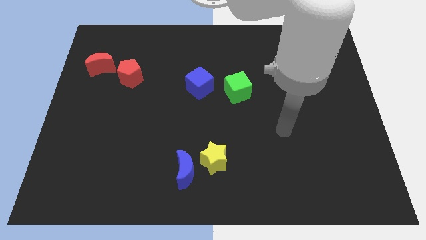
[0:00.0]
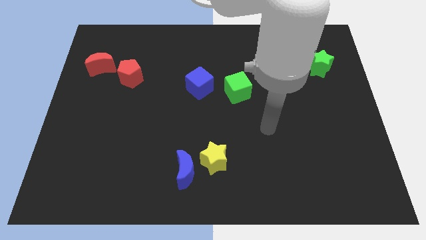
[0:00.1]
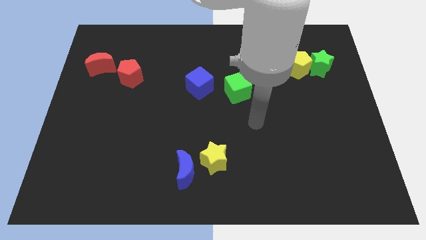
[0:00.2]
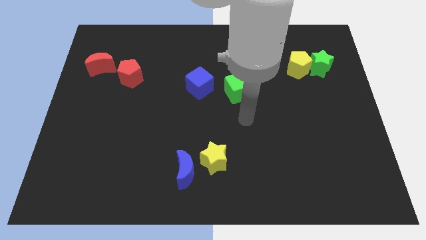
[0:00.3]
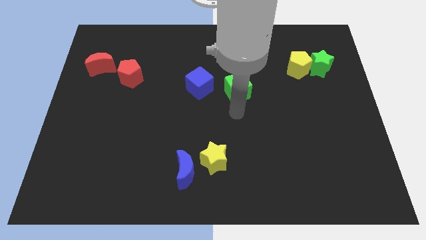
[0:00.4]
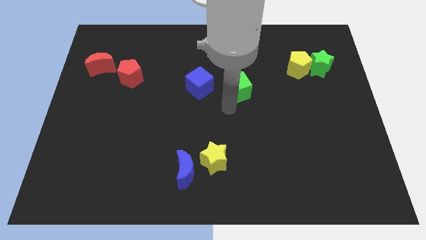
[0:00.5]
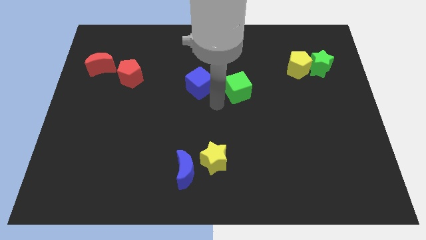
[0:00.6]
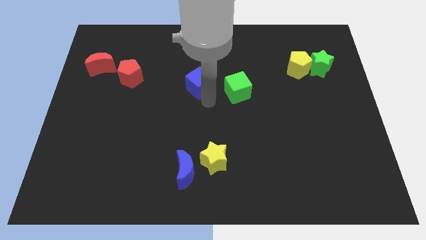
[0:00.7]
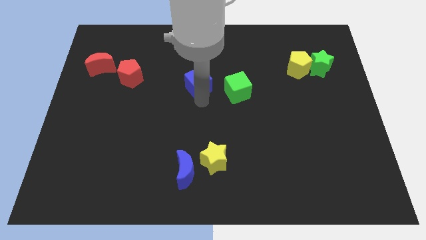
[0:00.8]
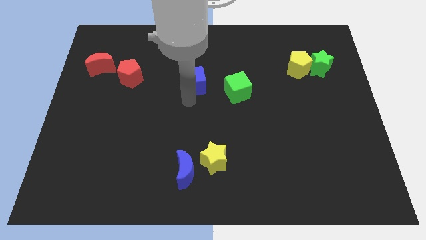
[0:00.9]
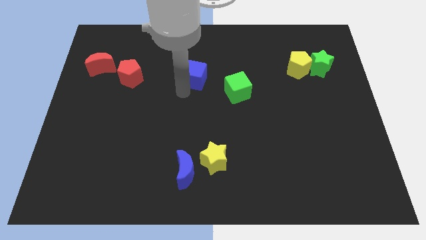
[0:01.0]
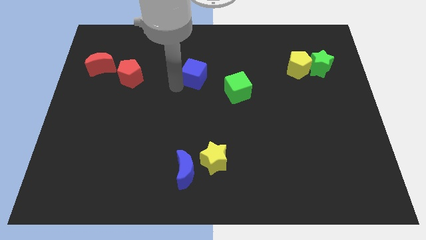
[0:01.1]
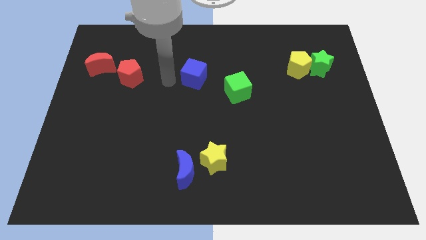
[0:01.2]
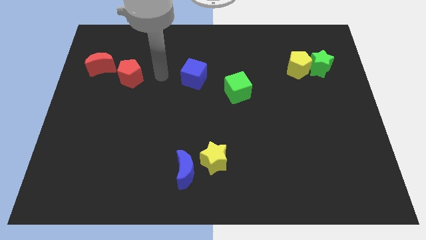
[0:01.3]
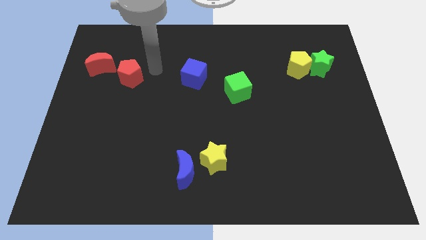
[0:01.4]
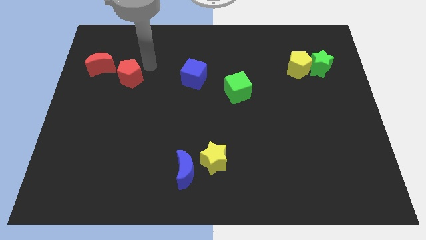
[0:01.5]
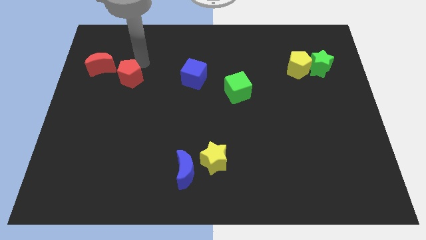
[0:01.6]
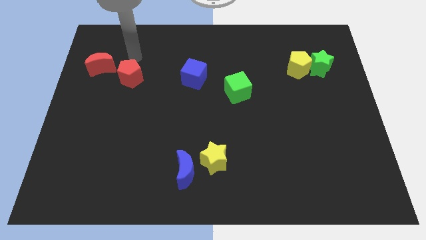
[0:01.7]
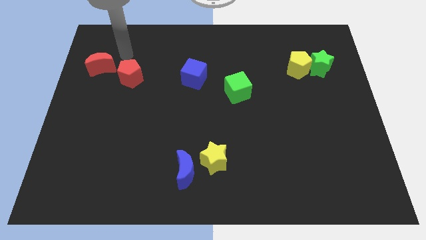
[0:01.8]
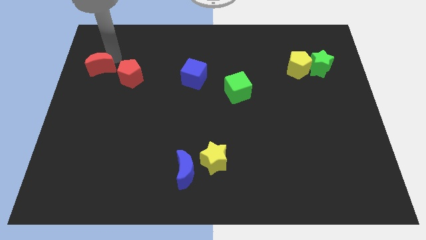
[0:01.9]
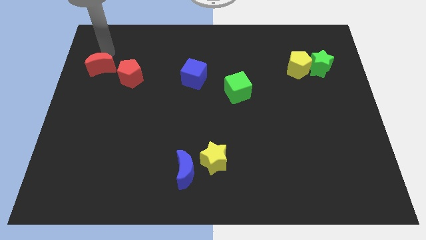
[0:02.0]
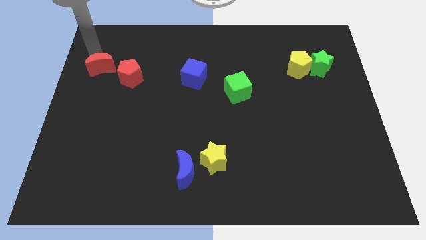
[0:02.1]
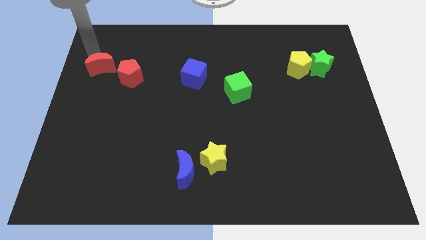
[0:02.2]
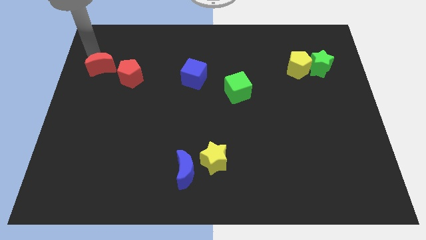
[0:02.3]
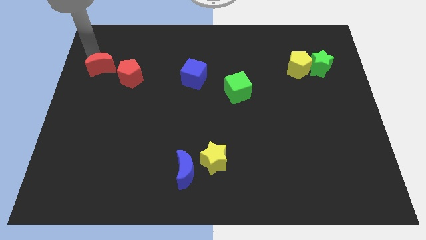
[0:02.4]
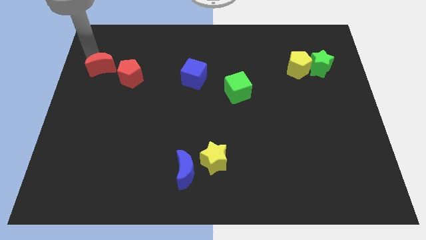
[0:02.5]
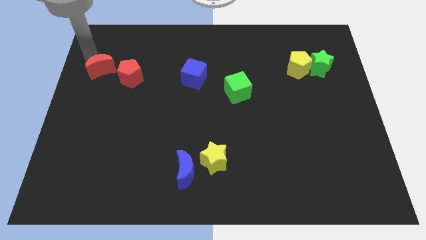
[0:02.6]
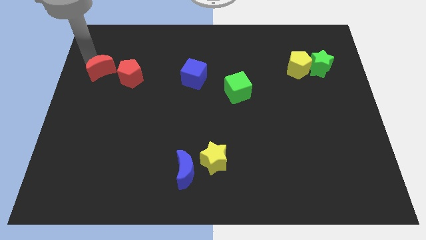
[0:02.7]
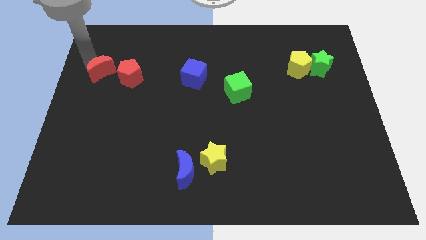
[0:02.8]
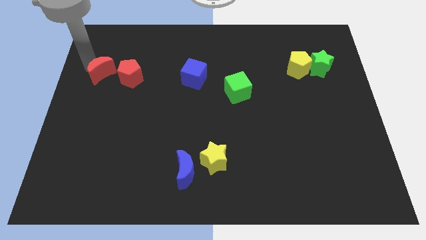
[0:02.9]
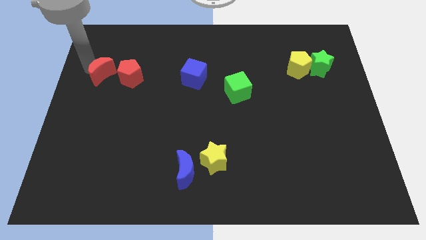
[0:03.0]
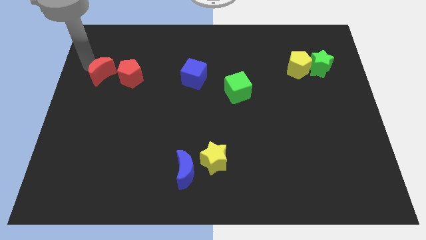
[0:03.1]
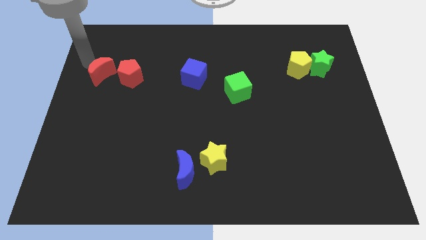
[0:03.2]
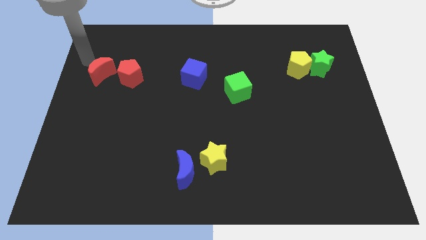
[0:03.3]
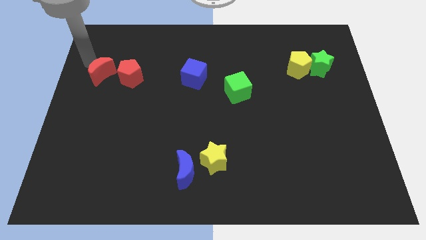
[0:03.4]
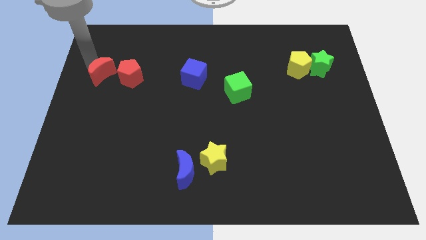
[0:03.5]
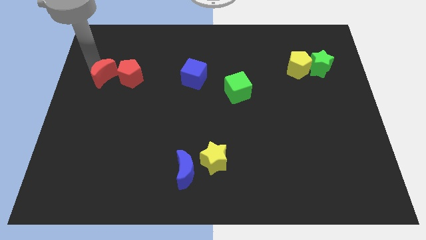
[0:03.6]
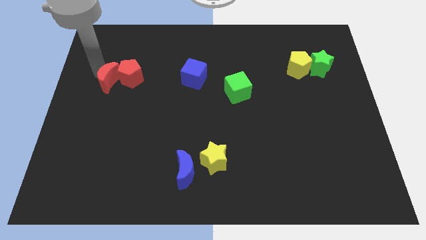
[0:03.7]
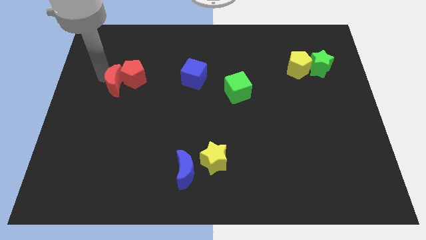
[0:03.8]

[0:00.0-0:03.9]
push the red moon down and to the right a little bit

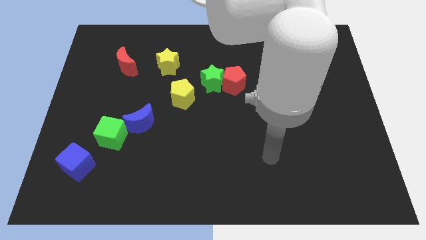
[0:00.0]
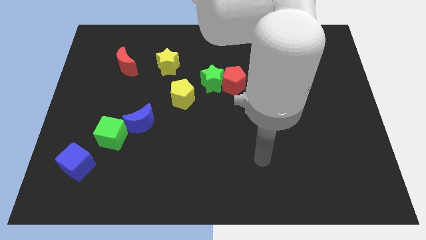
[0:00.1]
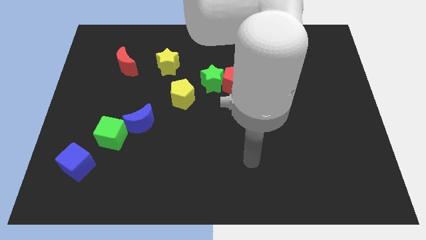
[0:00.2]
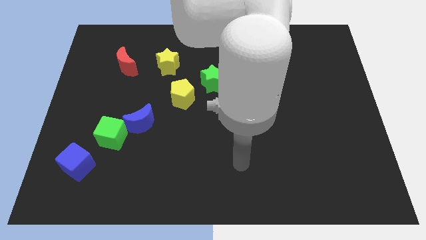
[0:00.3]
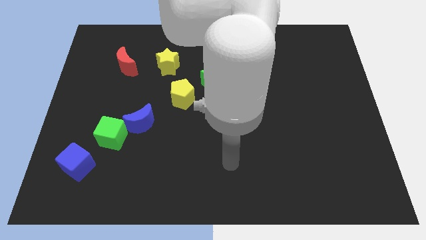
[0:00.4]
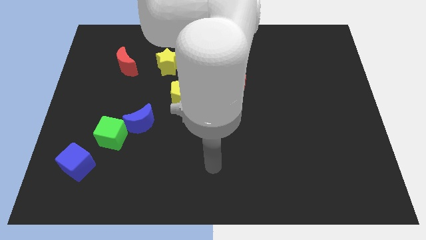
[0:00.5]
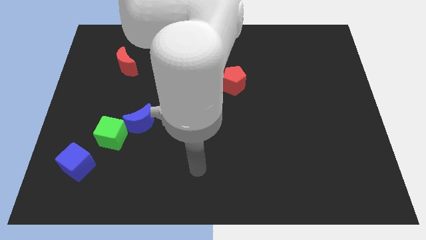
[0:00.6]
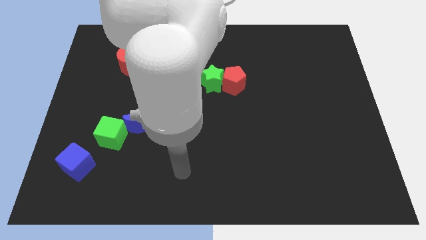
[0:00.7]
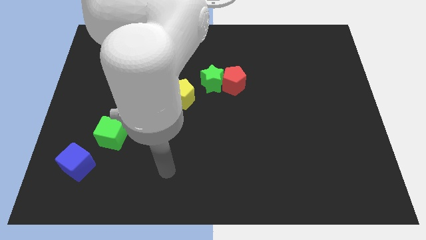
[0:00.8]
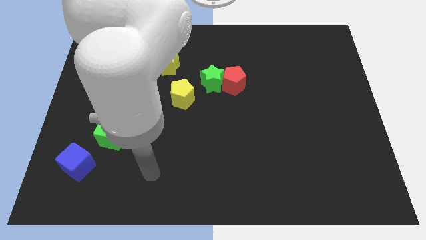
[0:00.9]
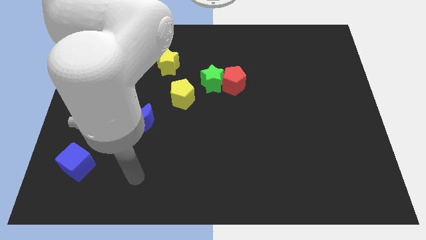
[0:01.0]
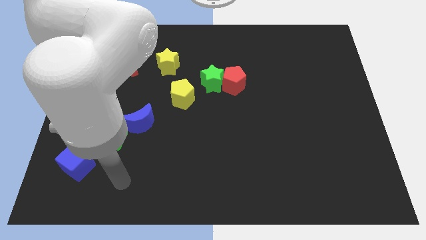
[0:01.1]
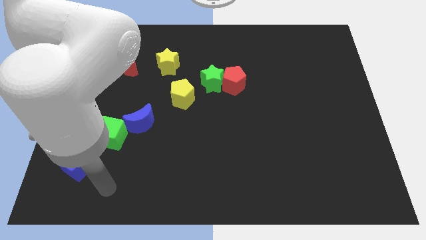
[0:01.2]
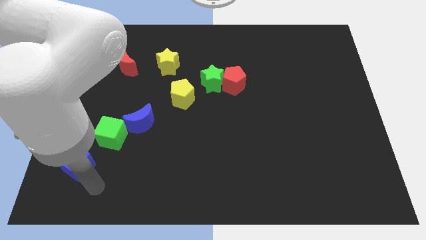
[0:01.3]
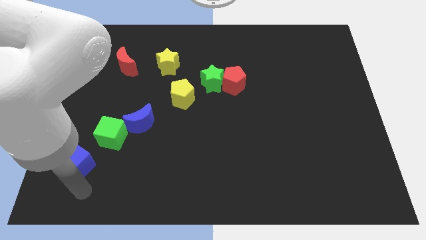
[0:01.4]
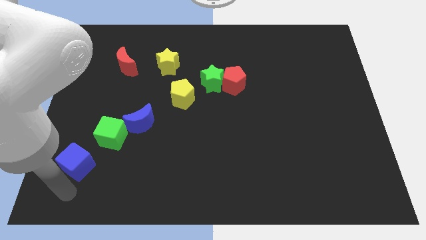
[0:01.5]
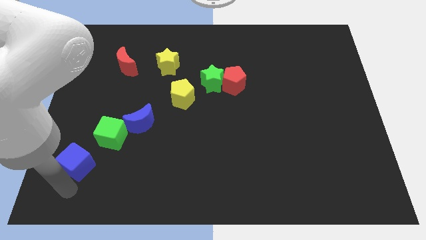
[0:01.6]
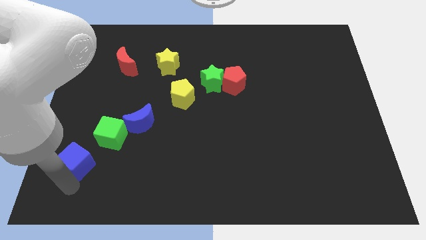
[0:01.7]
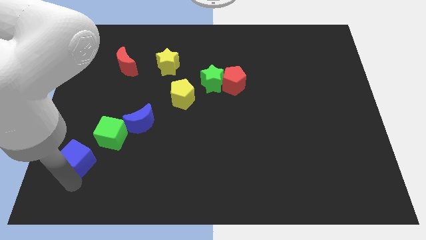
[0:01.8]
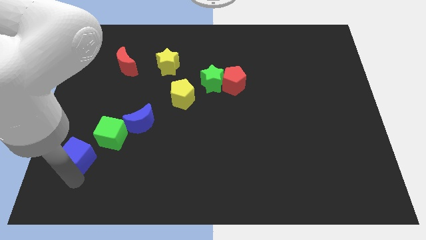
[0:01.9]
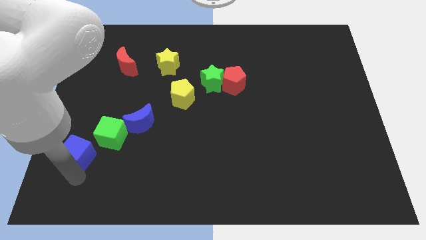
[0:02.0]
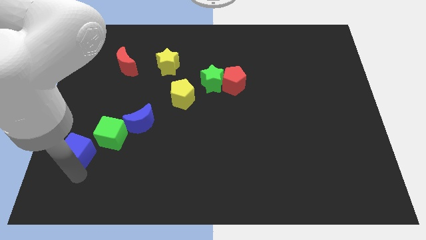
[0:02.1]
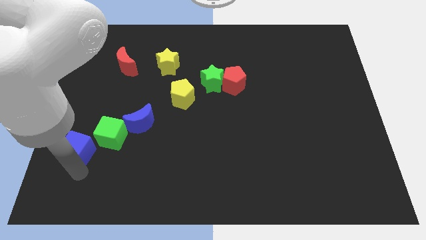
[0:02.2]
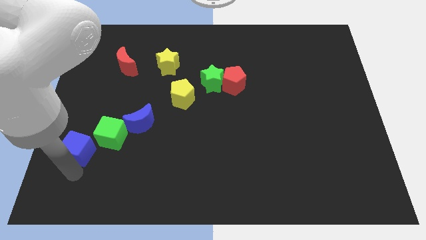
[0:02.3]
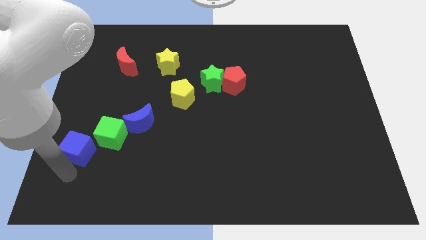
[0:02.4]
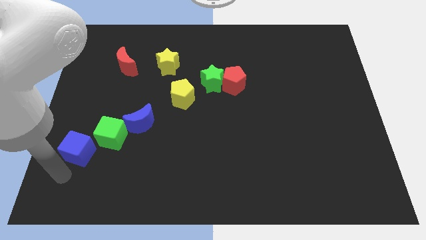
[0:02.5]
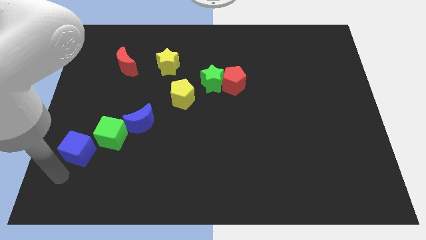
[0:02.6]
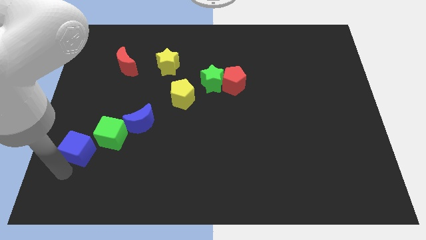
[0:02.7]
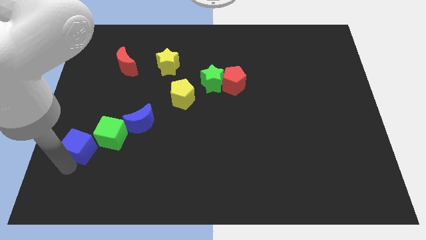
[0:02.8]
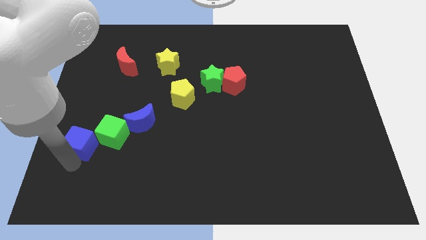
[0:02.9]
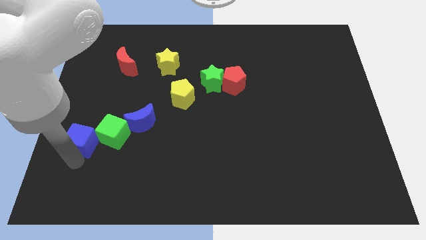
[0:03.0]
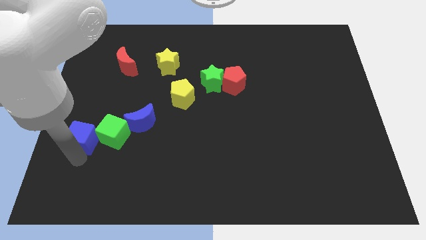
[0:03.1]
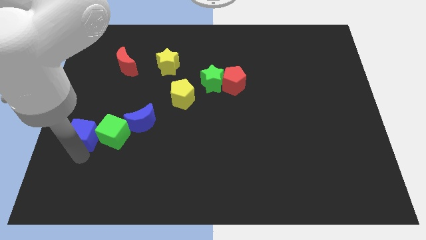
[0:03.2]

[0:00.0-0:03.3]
slightly push the blue cube upwards

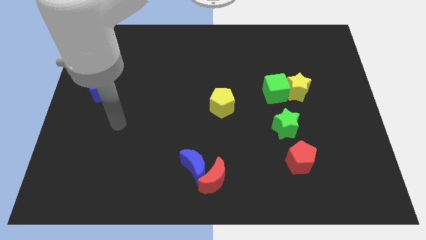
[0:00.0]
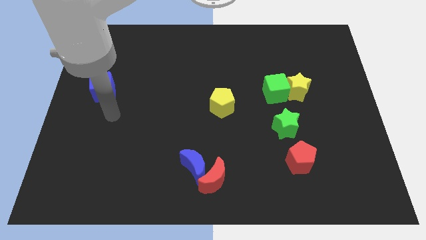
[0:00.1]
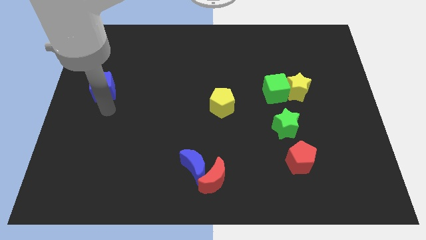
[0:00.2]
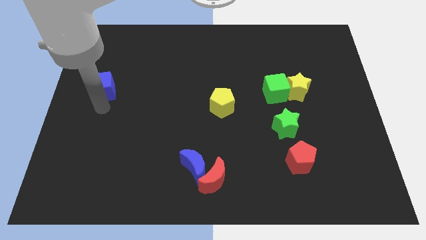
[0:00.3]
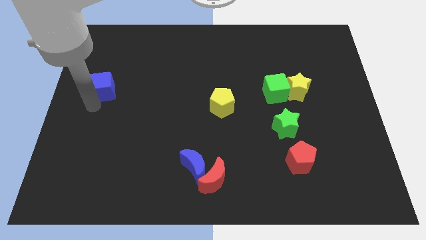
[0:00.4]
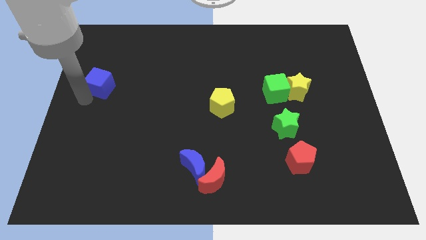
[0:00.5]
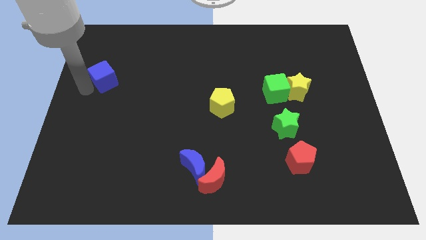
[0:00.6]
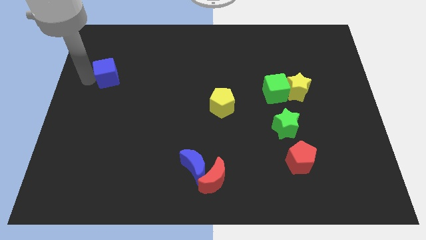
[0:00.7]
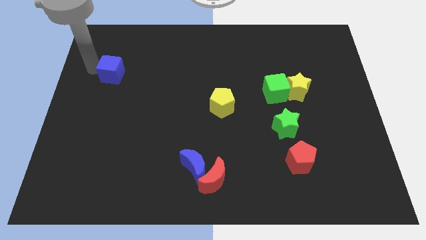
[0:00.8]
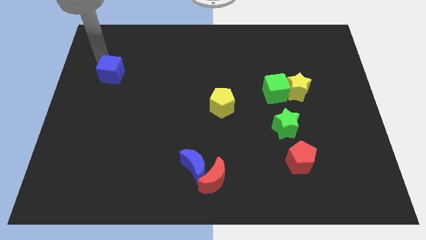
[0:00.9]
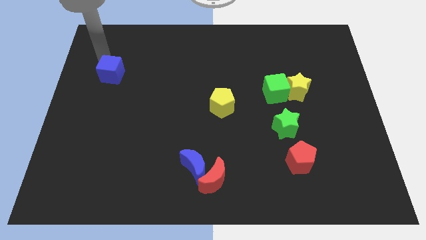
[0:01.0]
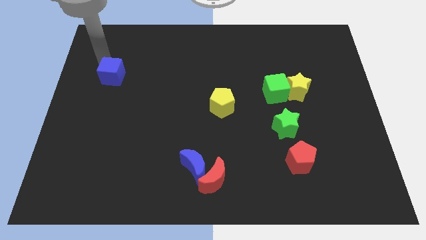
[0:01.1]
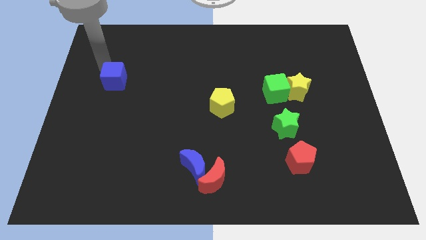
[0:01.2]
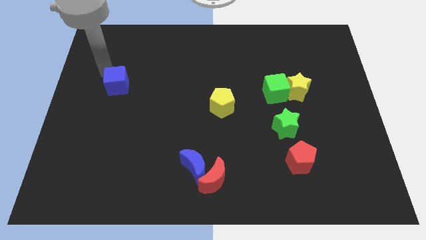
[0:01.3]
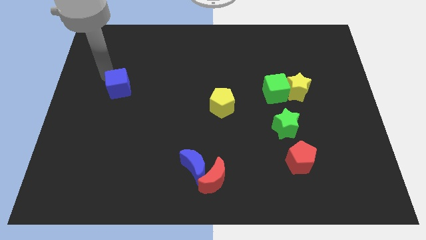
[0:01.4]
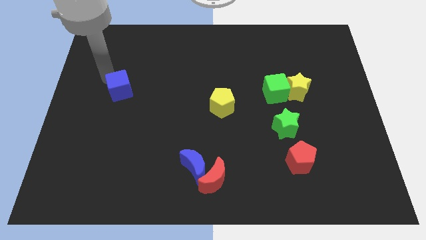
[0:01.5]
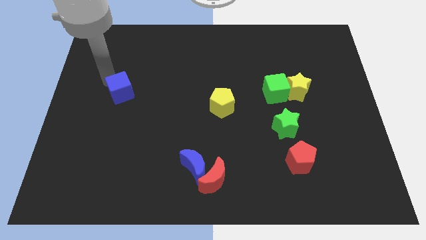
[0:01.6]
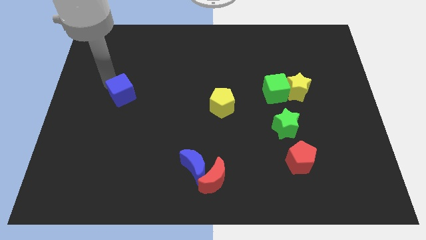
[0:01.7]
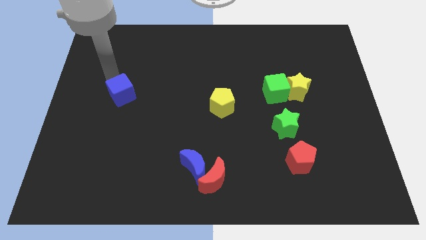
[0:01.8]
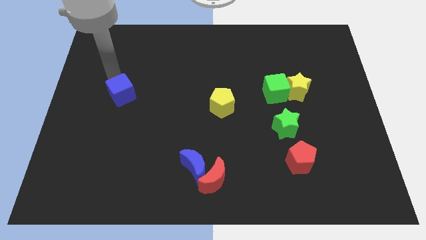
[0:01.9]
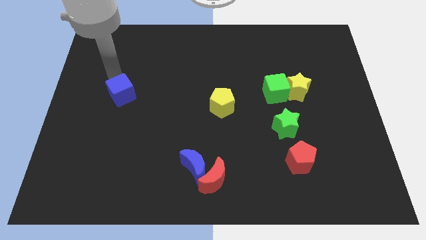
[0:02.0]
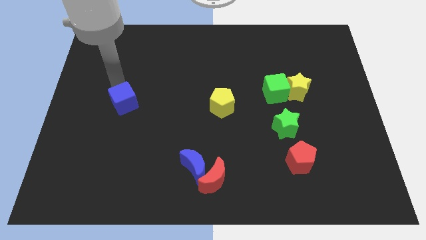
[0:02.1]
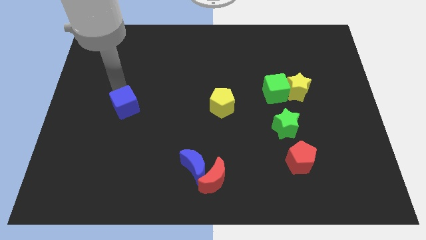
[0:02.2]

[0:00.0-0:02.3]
move the blue cube a bit down and then right
